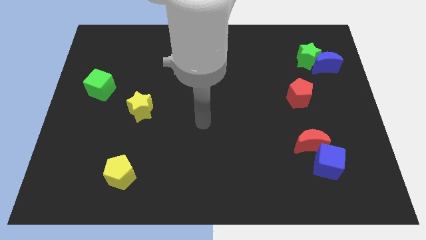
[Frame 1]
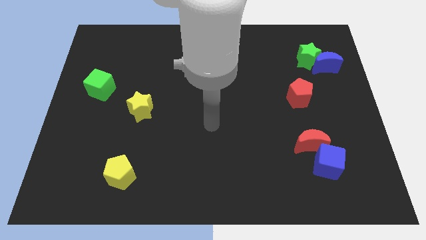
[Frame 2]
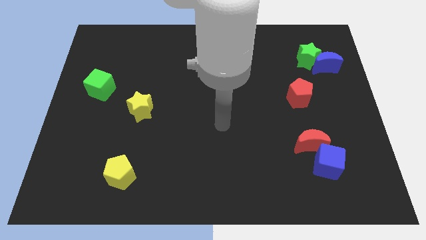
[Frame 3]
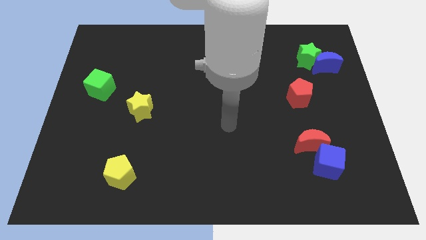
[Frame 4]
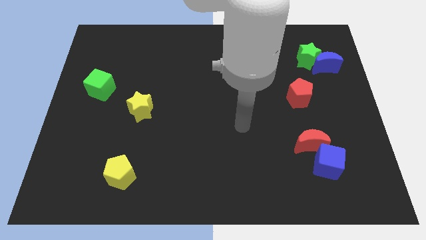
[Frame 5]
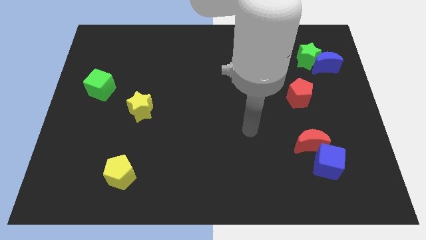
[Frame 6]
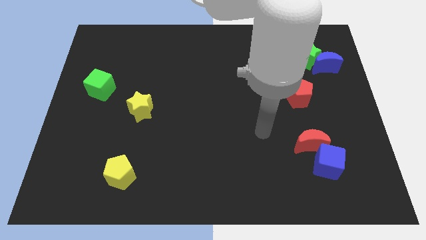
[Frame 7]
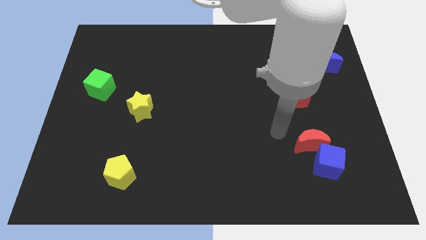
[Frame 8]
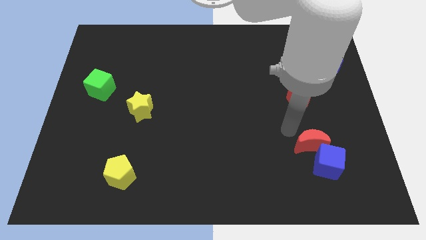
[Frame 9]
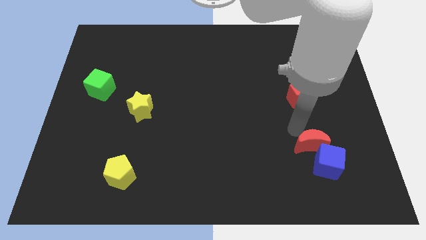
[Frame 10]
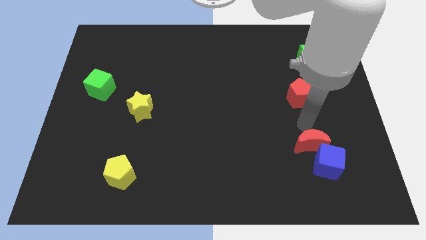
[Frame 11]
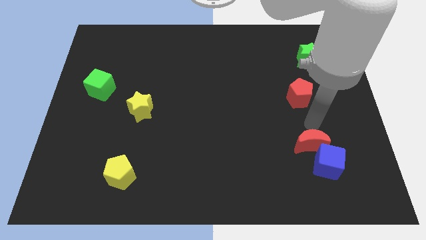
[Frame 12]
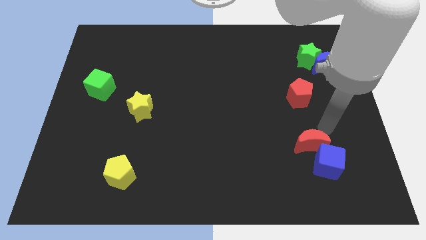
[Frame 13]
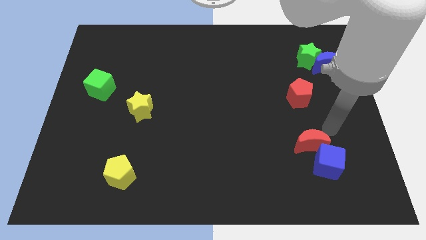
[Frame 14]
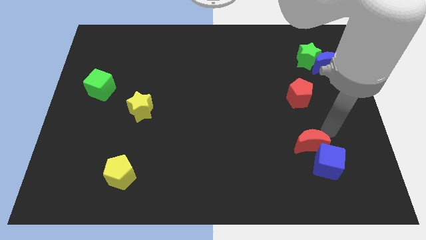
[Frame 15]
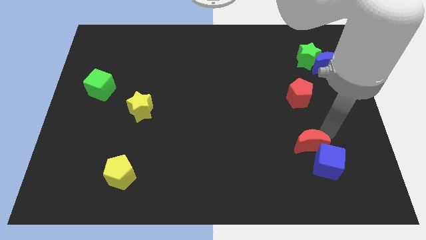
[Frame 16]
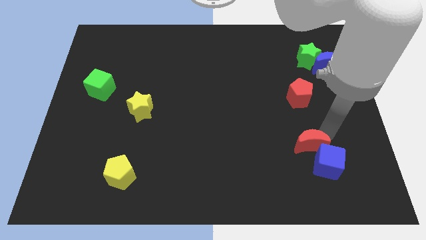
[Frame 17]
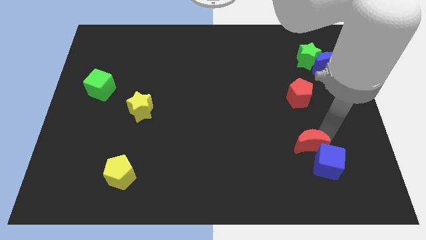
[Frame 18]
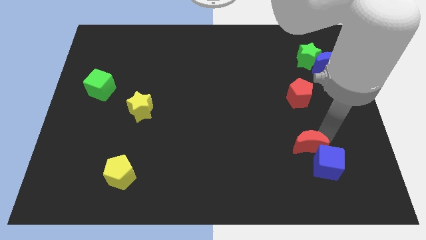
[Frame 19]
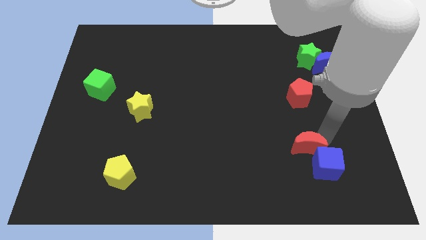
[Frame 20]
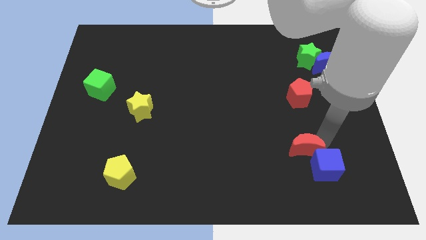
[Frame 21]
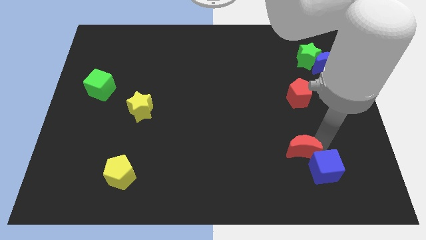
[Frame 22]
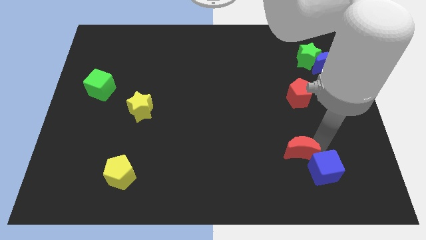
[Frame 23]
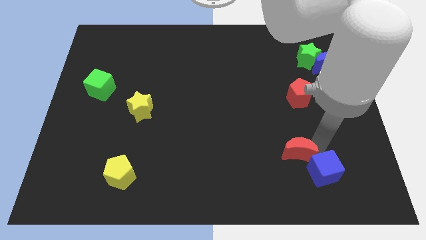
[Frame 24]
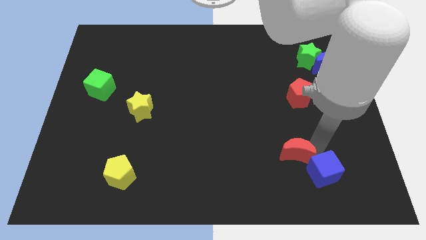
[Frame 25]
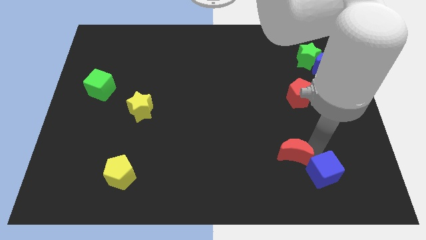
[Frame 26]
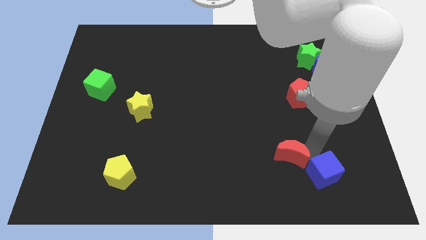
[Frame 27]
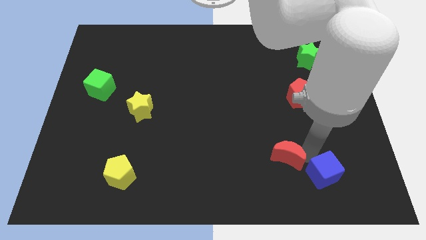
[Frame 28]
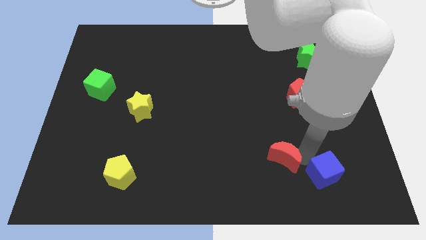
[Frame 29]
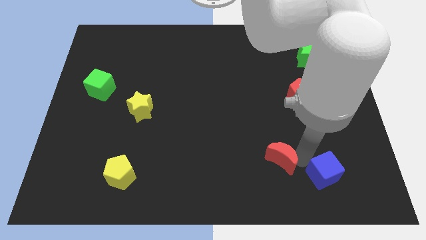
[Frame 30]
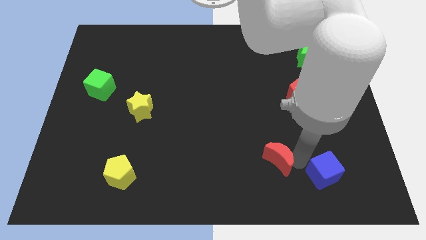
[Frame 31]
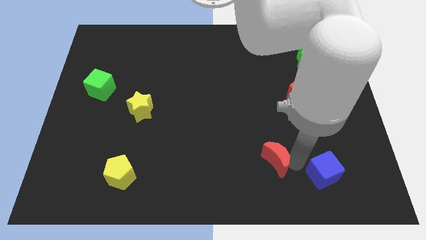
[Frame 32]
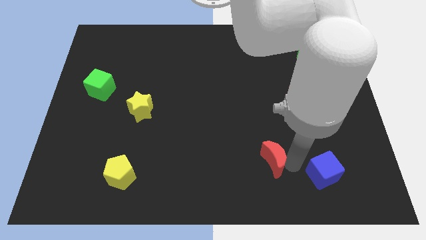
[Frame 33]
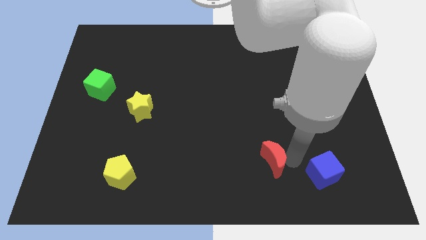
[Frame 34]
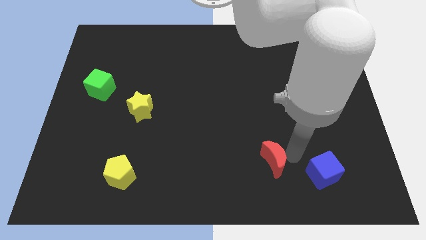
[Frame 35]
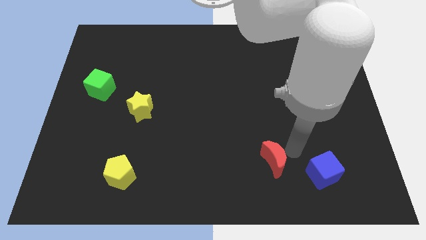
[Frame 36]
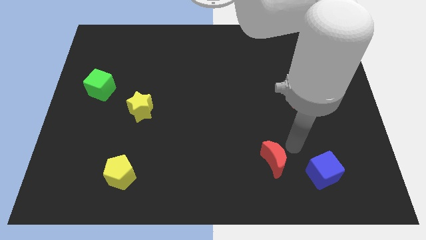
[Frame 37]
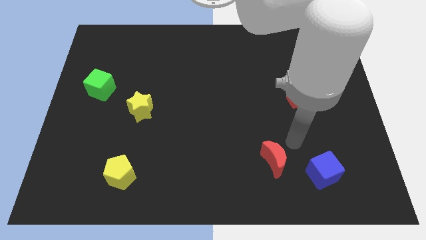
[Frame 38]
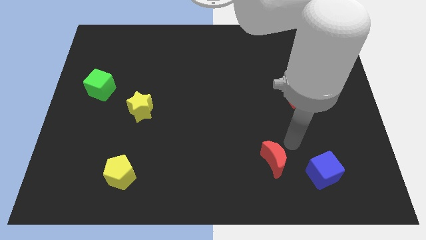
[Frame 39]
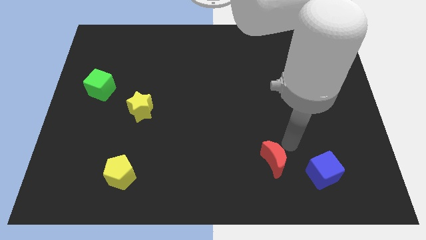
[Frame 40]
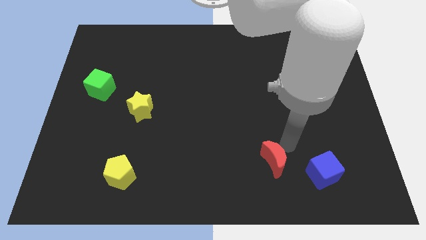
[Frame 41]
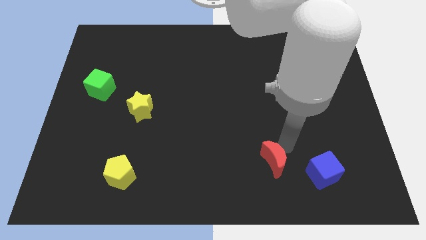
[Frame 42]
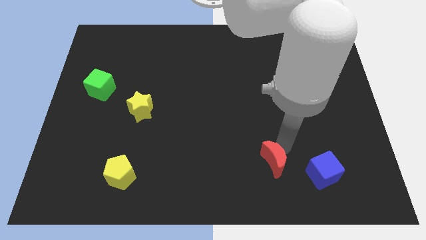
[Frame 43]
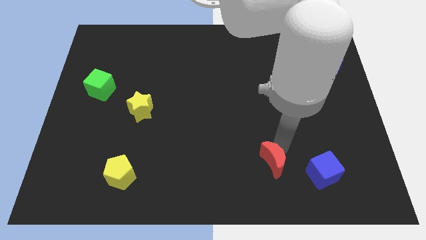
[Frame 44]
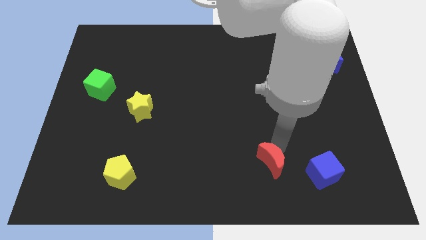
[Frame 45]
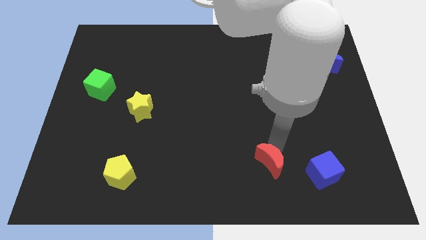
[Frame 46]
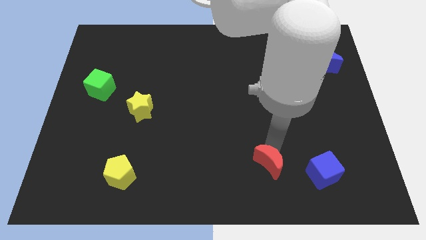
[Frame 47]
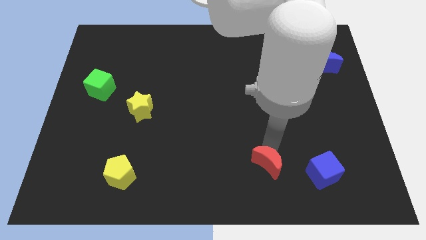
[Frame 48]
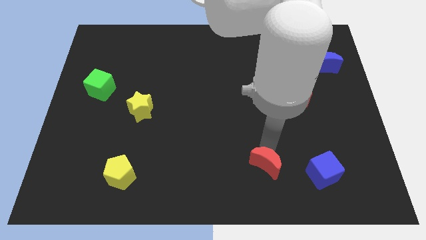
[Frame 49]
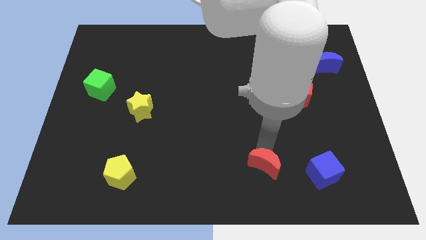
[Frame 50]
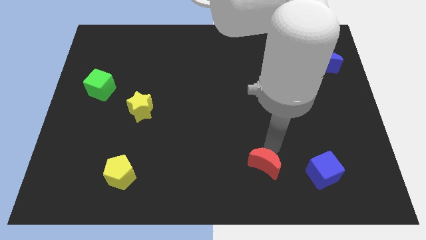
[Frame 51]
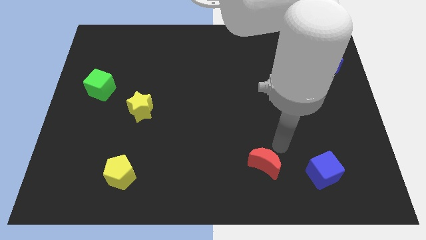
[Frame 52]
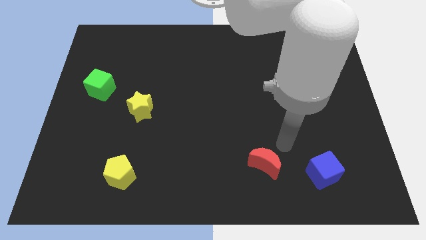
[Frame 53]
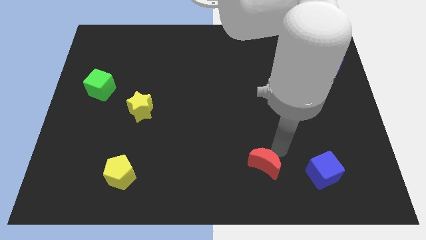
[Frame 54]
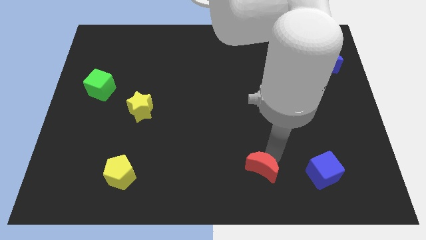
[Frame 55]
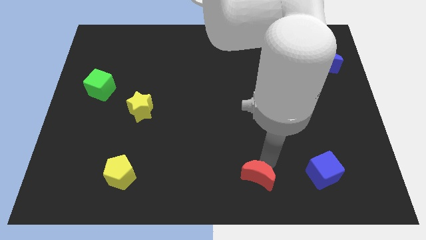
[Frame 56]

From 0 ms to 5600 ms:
move the red moon to the bottom

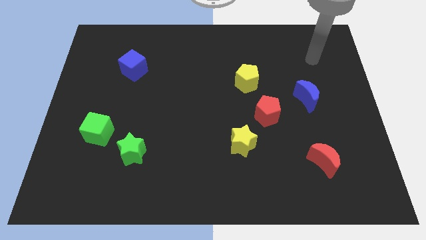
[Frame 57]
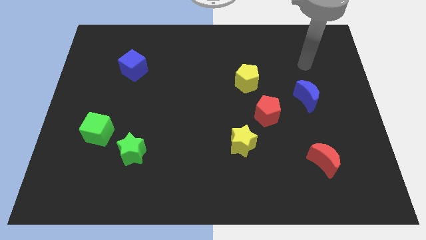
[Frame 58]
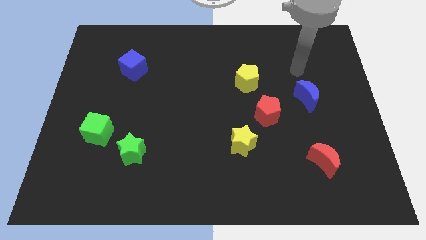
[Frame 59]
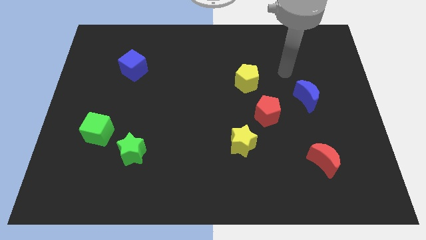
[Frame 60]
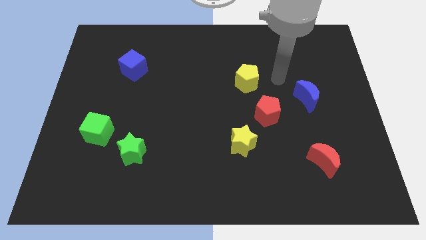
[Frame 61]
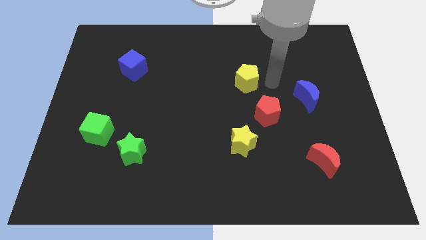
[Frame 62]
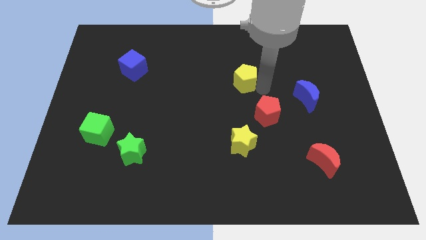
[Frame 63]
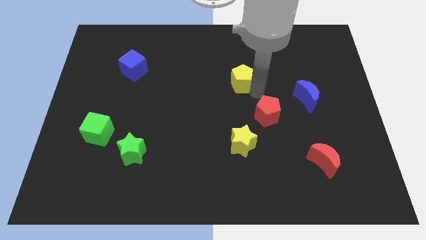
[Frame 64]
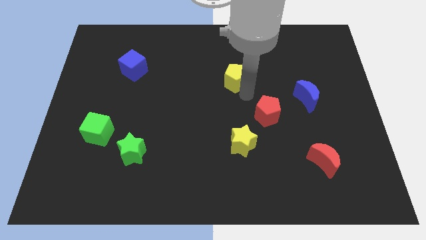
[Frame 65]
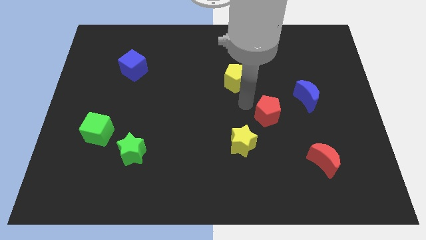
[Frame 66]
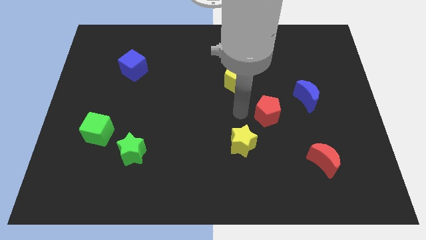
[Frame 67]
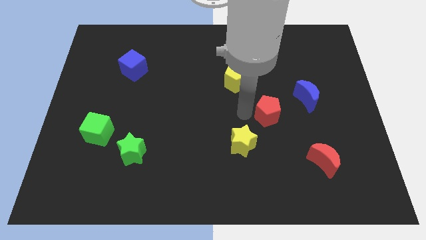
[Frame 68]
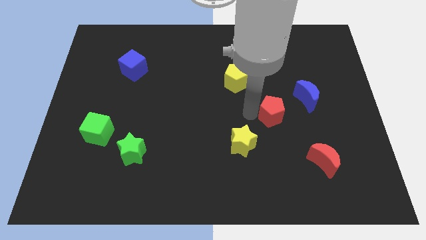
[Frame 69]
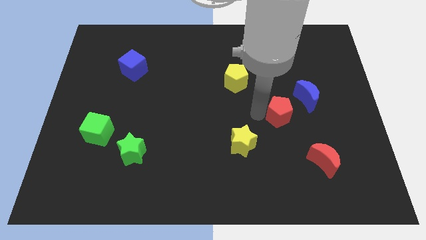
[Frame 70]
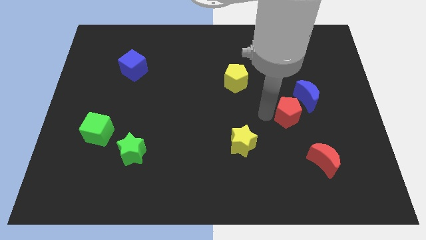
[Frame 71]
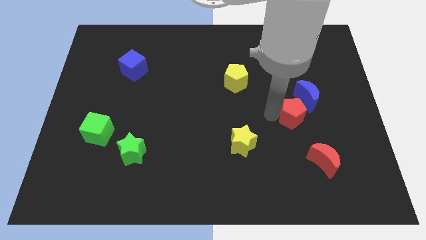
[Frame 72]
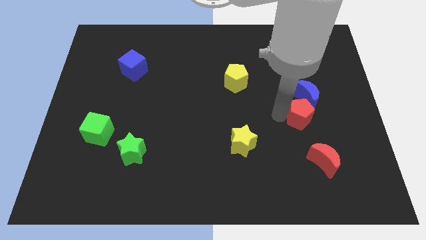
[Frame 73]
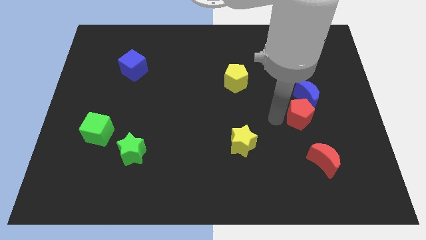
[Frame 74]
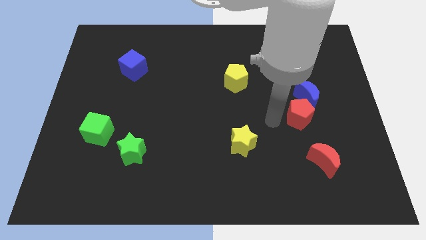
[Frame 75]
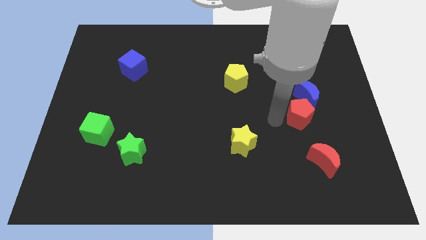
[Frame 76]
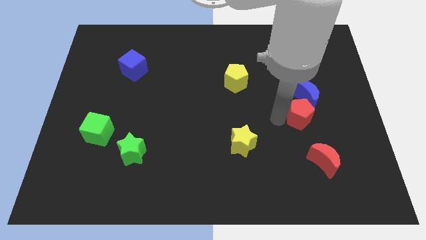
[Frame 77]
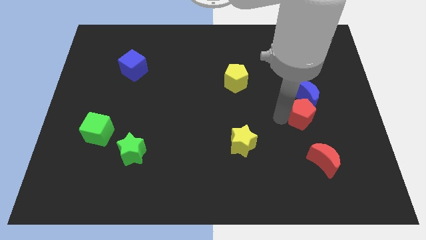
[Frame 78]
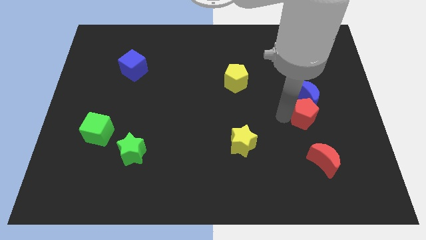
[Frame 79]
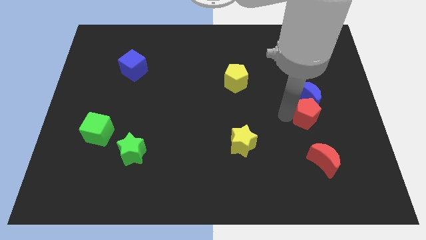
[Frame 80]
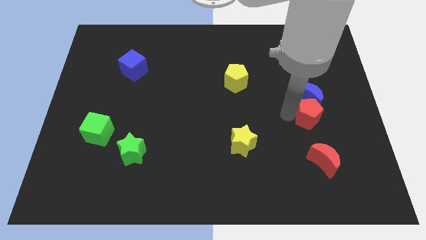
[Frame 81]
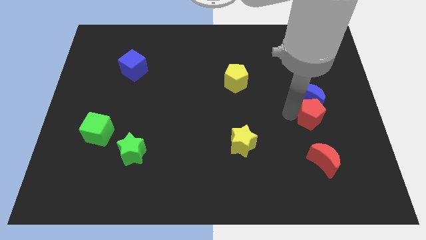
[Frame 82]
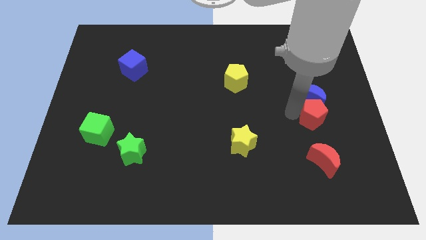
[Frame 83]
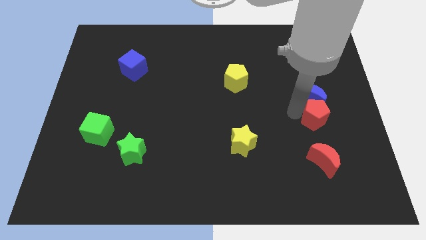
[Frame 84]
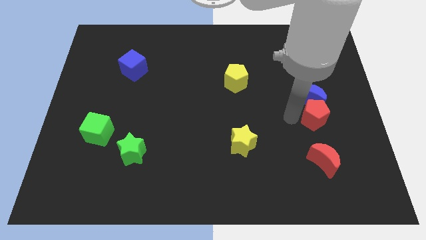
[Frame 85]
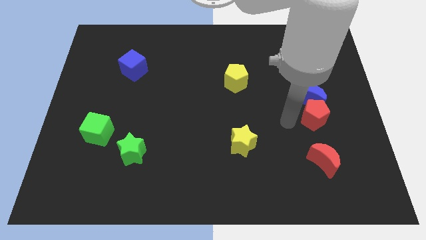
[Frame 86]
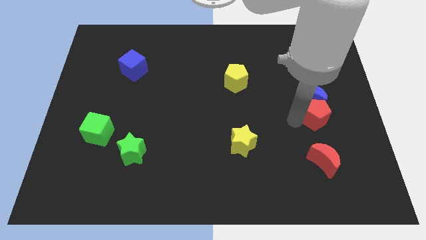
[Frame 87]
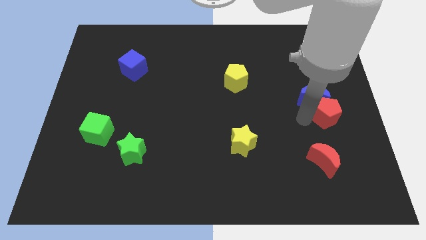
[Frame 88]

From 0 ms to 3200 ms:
push the red pentagon to the right side
